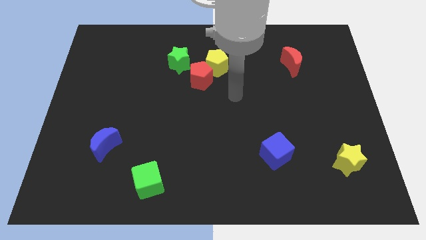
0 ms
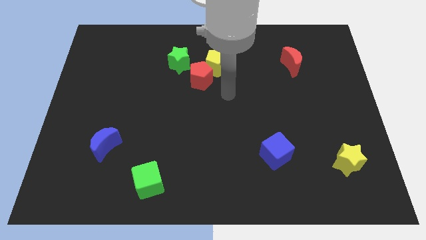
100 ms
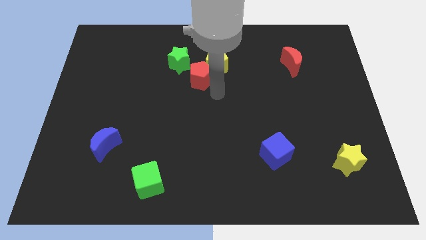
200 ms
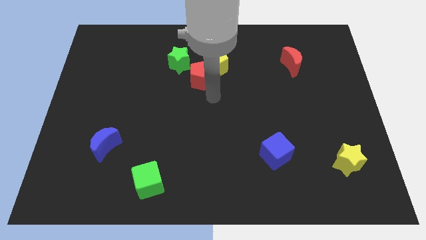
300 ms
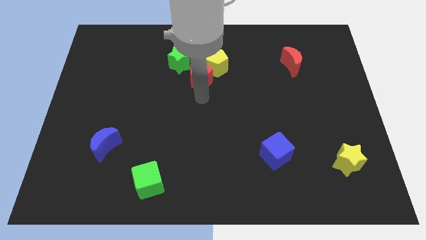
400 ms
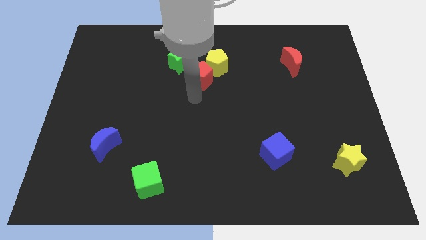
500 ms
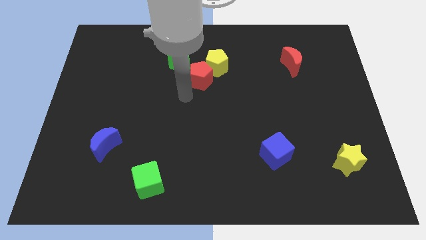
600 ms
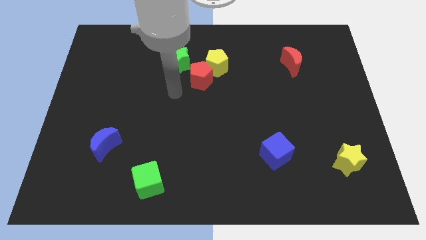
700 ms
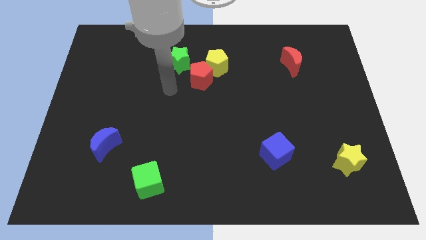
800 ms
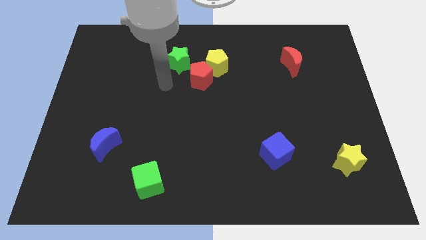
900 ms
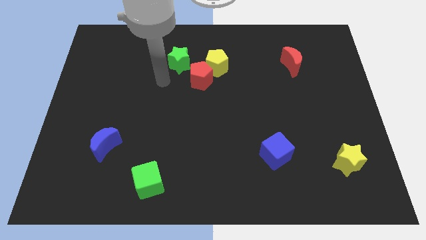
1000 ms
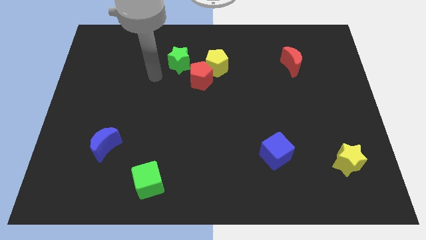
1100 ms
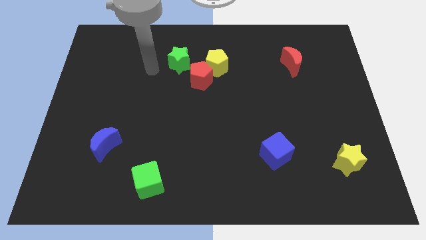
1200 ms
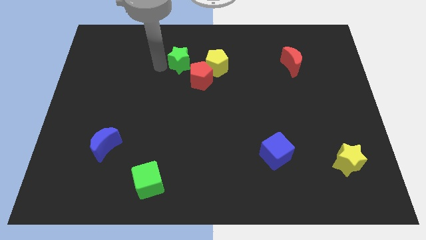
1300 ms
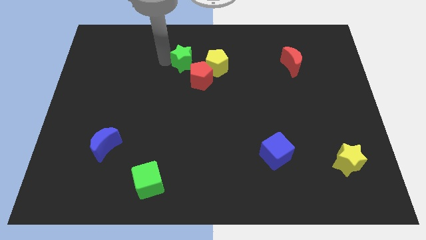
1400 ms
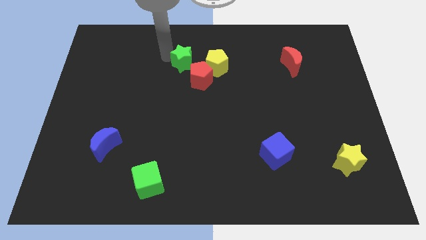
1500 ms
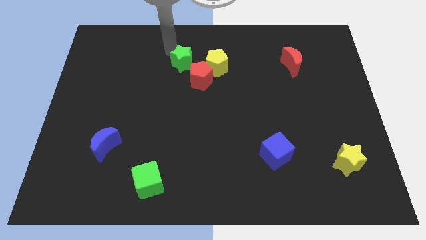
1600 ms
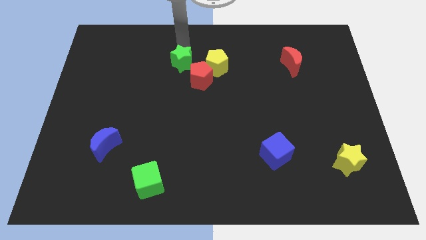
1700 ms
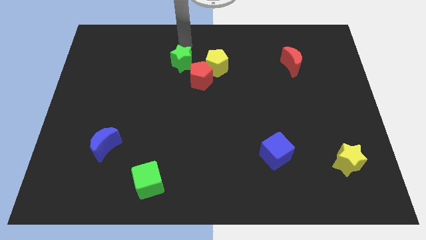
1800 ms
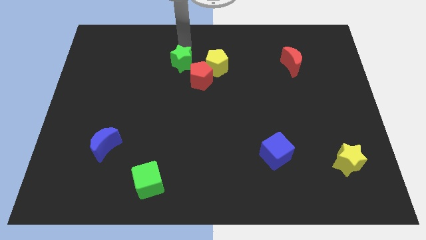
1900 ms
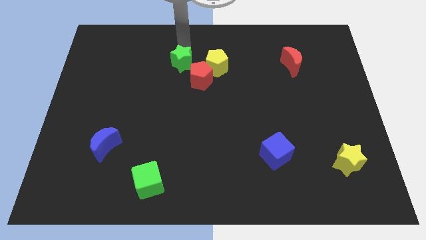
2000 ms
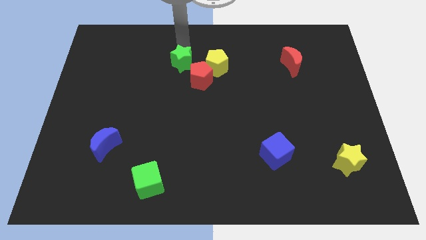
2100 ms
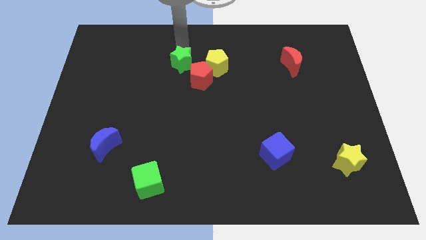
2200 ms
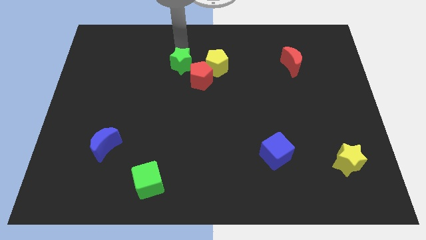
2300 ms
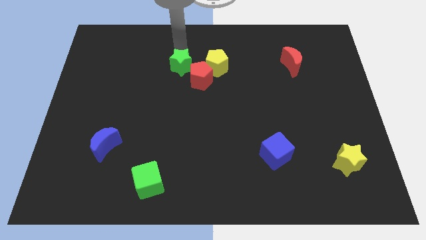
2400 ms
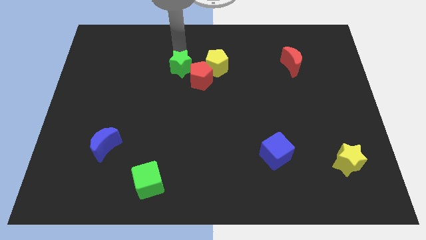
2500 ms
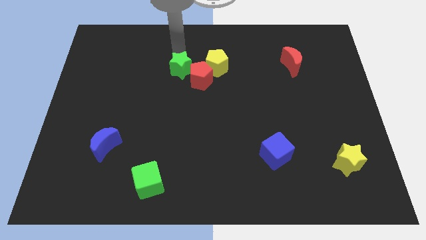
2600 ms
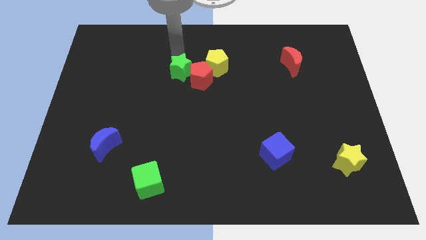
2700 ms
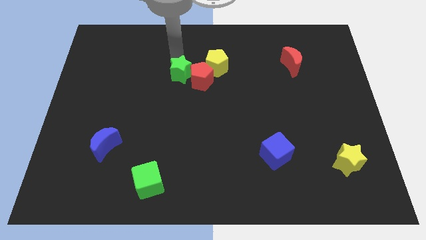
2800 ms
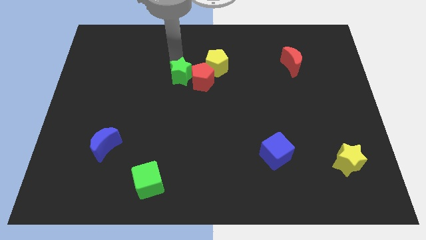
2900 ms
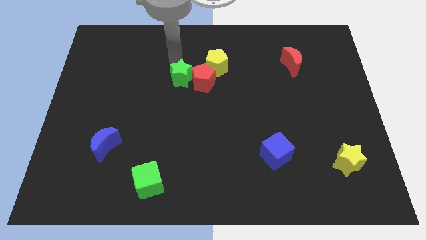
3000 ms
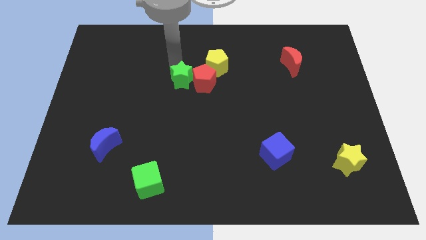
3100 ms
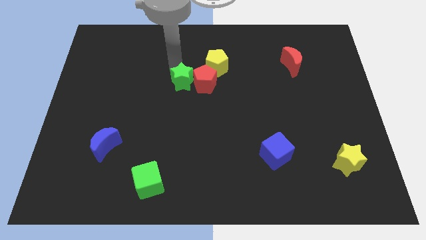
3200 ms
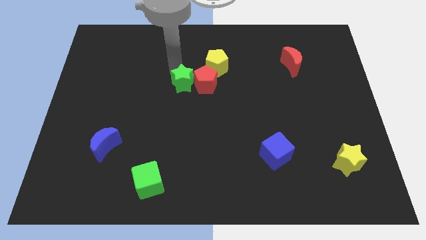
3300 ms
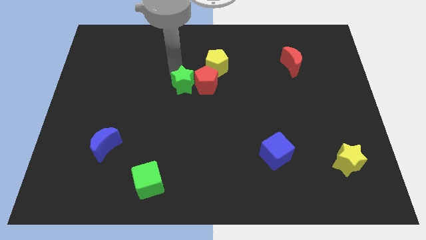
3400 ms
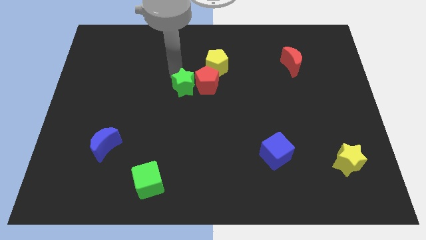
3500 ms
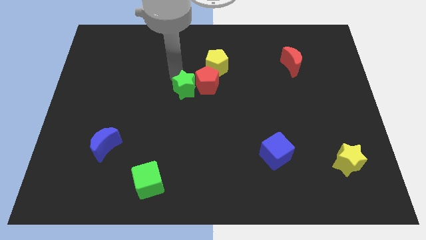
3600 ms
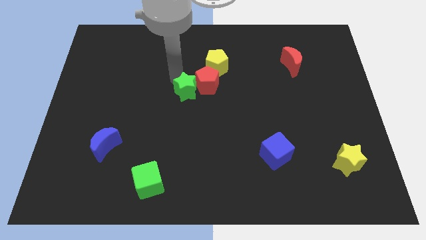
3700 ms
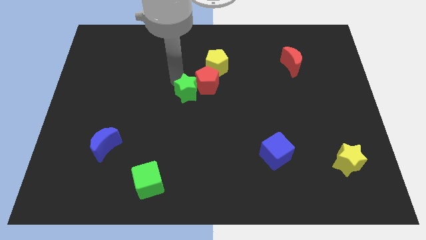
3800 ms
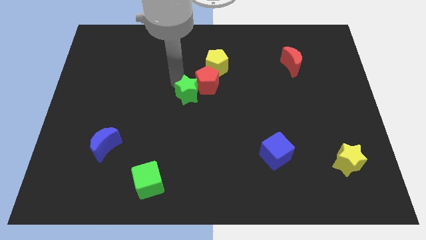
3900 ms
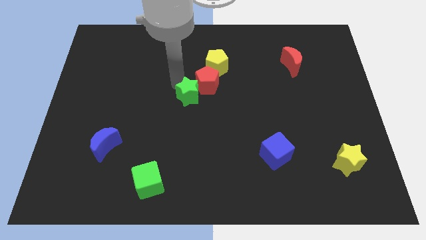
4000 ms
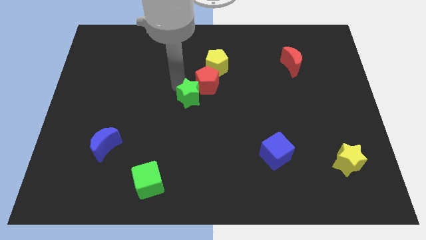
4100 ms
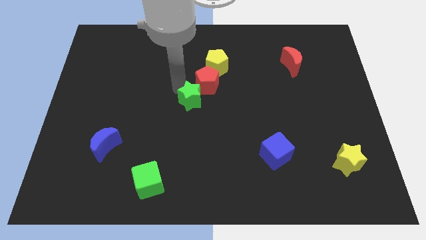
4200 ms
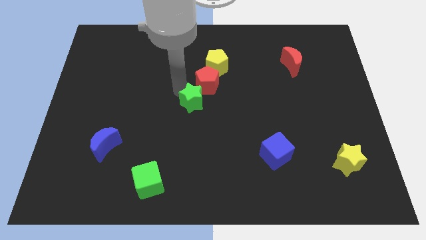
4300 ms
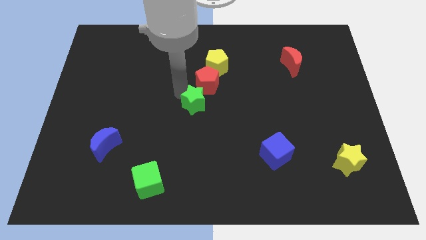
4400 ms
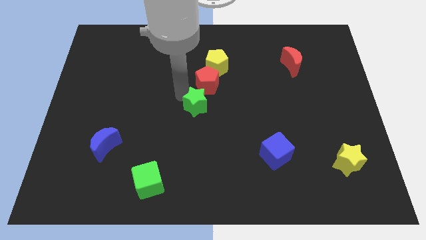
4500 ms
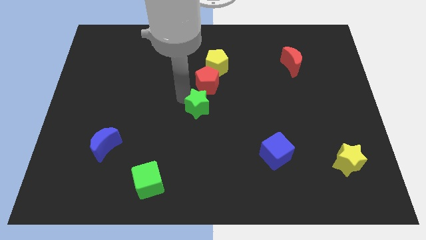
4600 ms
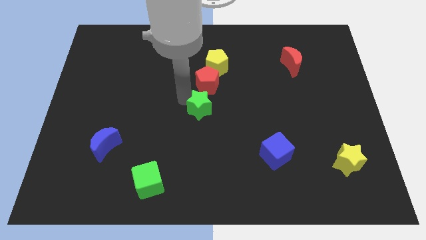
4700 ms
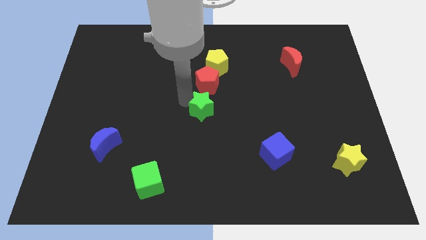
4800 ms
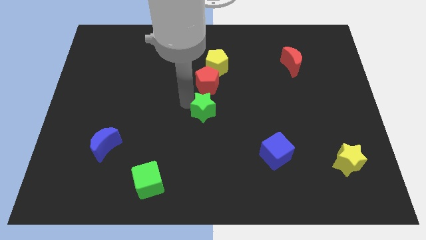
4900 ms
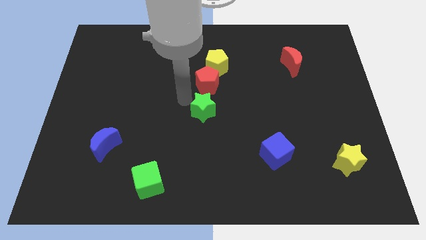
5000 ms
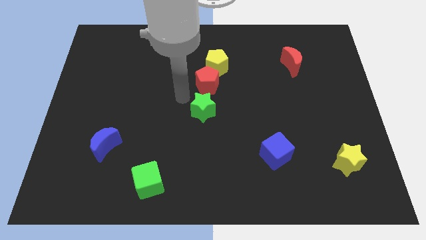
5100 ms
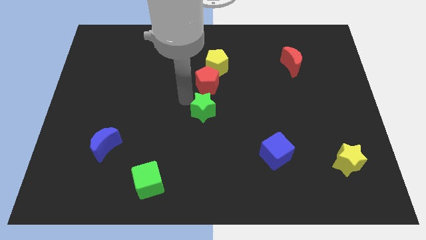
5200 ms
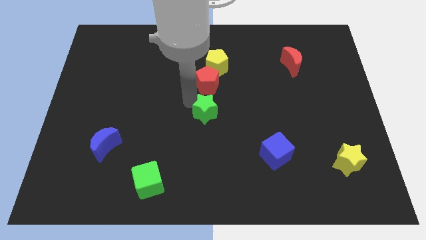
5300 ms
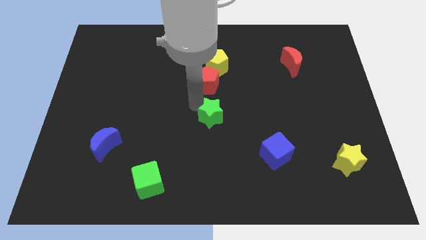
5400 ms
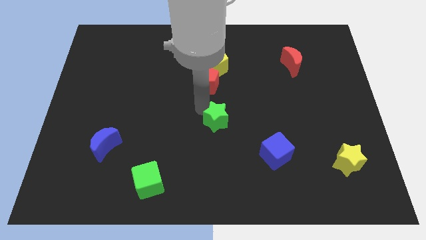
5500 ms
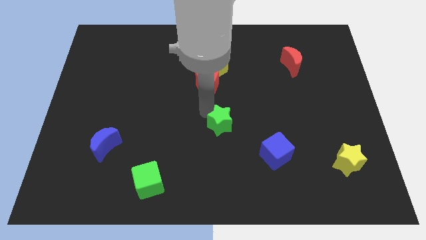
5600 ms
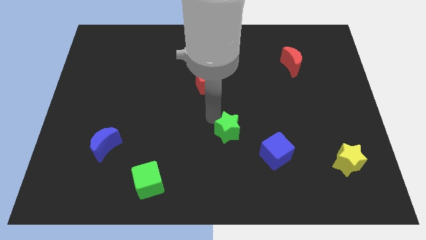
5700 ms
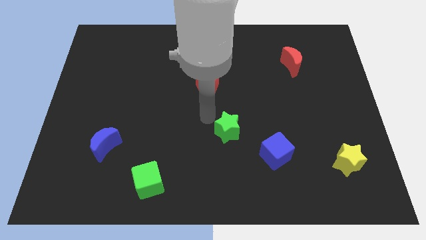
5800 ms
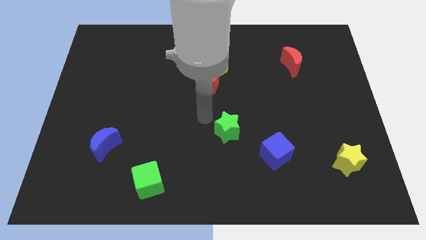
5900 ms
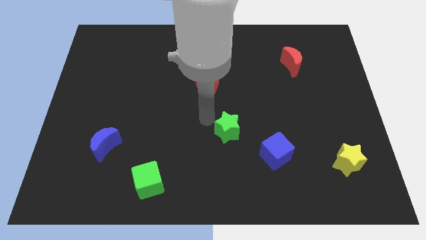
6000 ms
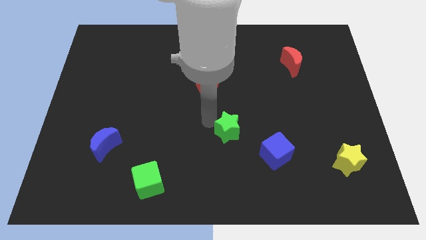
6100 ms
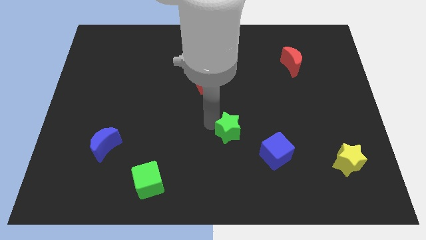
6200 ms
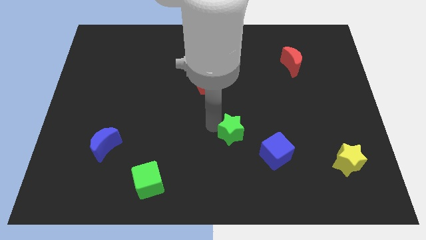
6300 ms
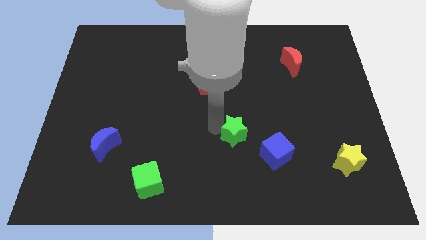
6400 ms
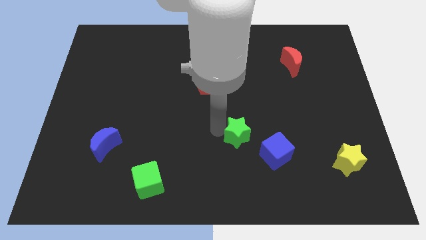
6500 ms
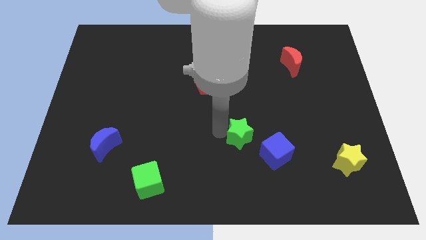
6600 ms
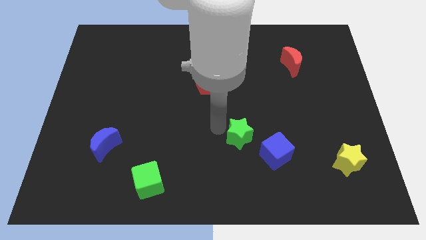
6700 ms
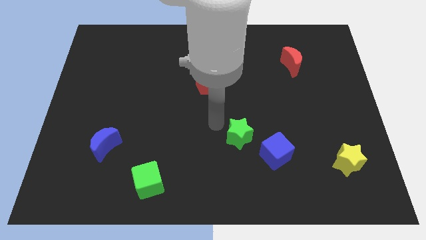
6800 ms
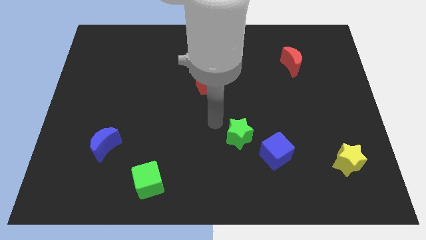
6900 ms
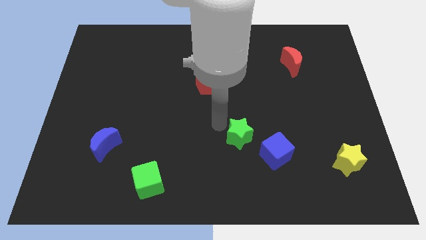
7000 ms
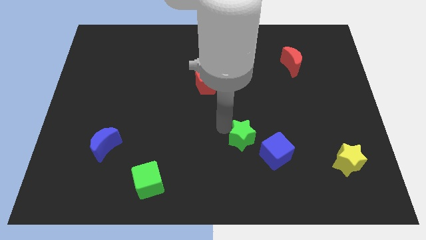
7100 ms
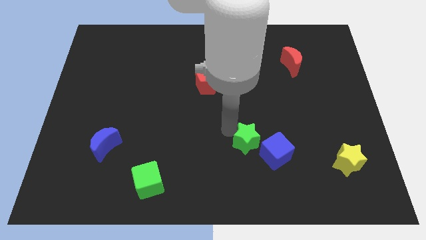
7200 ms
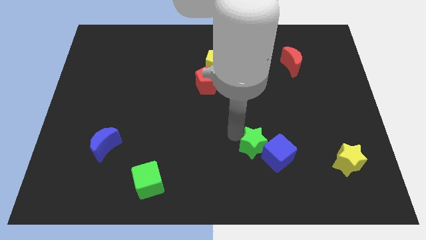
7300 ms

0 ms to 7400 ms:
move the green star next to the blue cube
